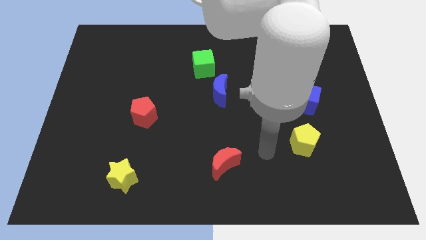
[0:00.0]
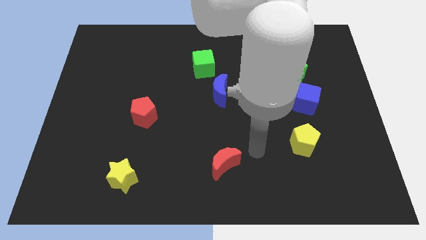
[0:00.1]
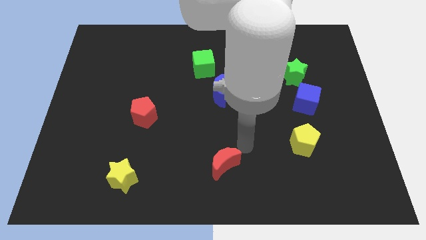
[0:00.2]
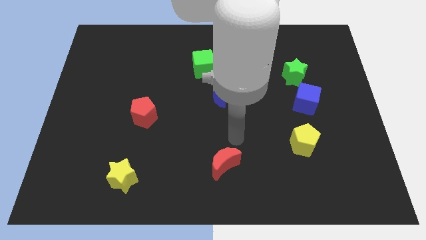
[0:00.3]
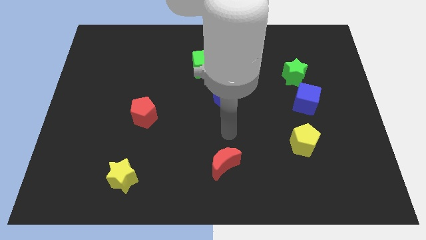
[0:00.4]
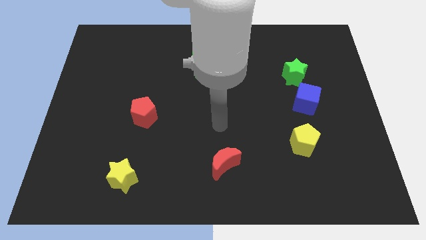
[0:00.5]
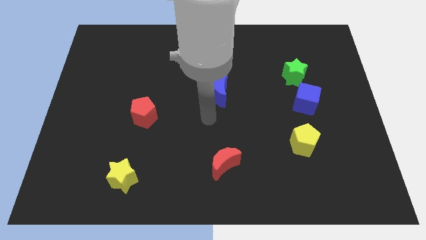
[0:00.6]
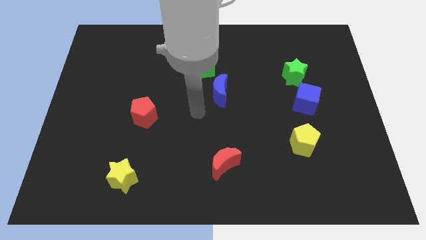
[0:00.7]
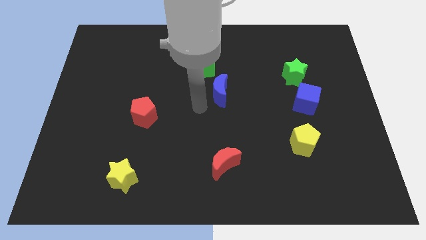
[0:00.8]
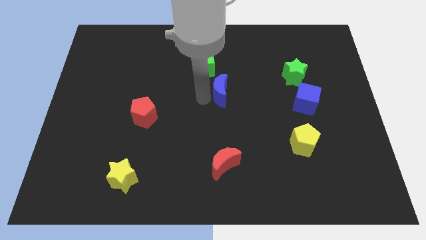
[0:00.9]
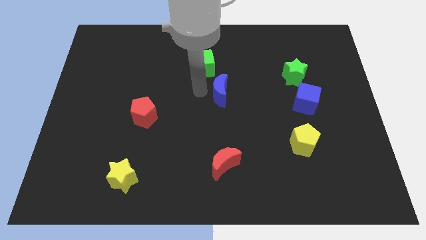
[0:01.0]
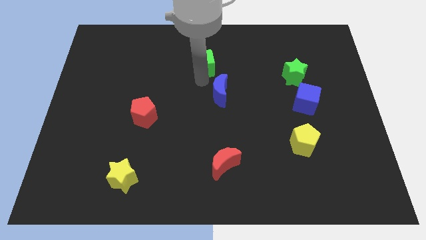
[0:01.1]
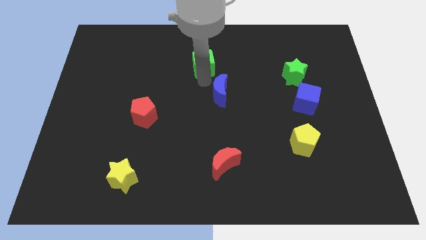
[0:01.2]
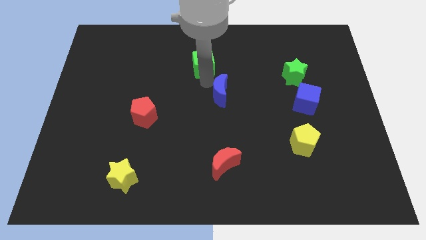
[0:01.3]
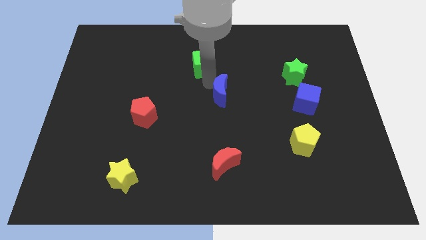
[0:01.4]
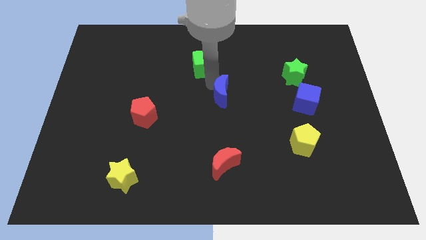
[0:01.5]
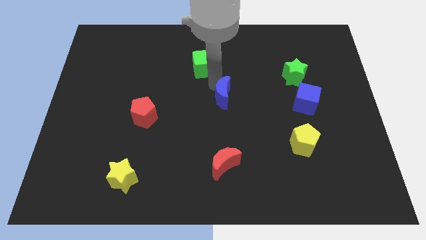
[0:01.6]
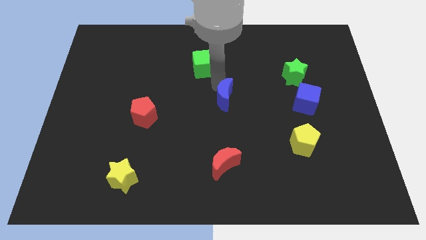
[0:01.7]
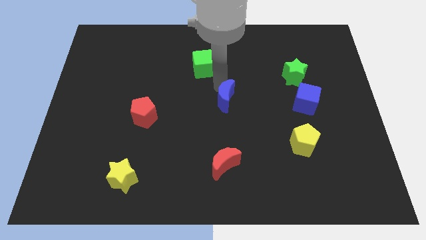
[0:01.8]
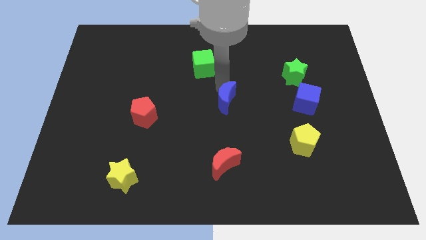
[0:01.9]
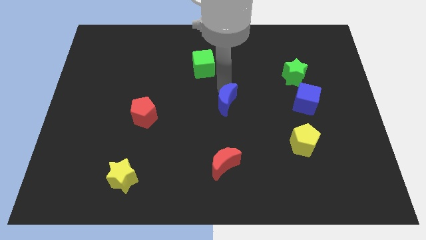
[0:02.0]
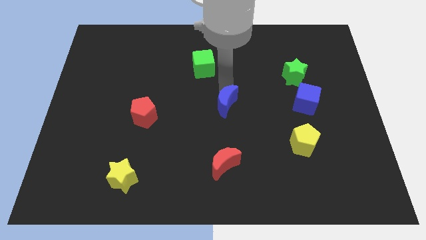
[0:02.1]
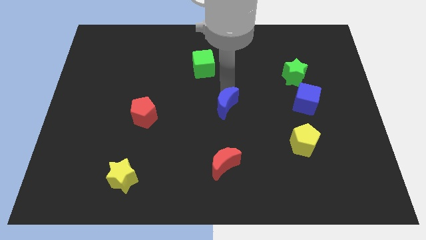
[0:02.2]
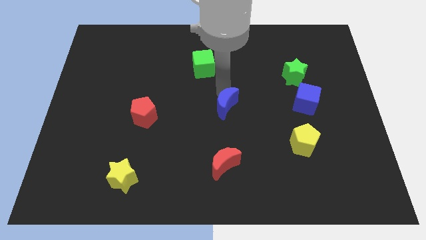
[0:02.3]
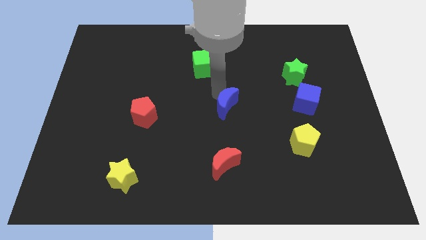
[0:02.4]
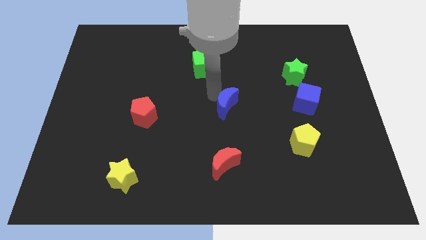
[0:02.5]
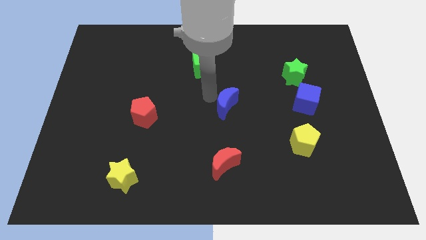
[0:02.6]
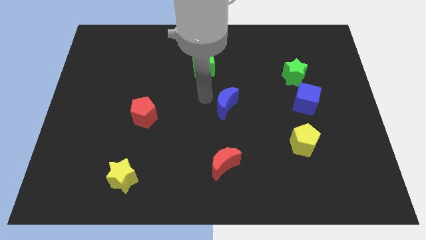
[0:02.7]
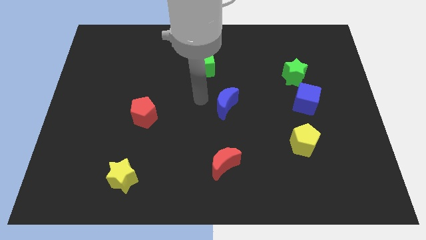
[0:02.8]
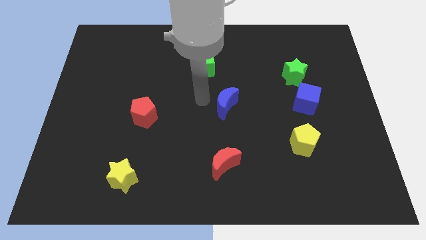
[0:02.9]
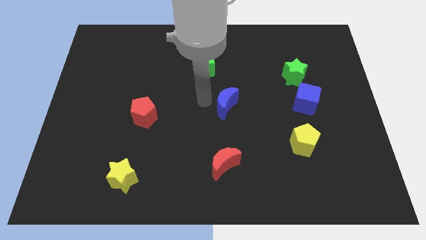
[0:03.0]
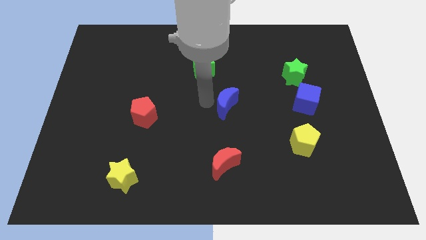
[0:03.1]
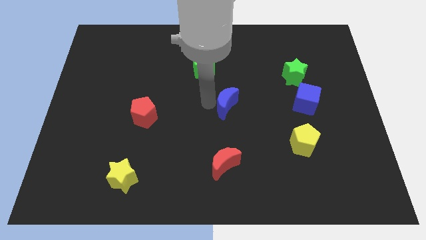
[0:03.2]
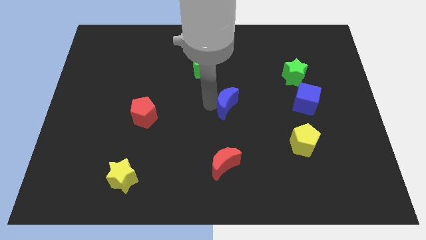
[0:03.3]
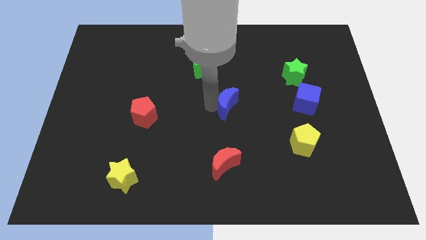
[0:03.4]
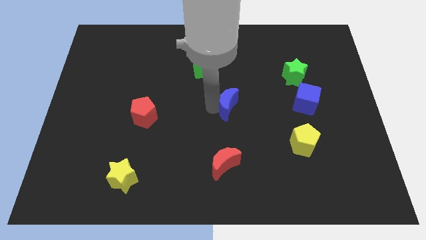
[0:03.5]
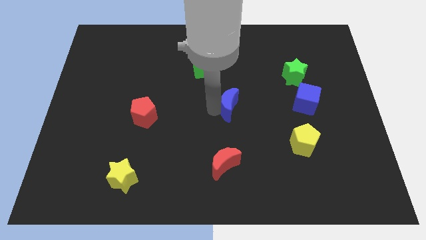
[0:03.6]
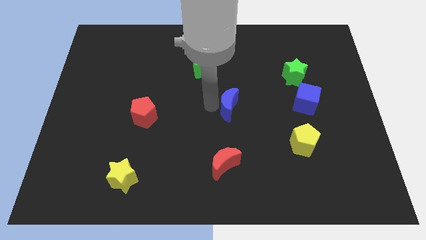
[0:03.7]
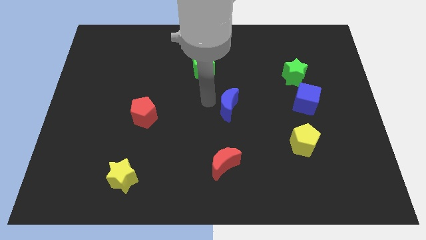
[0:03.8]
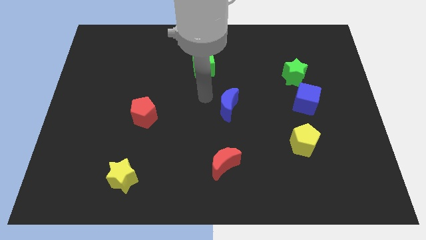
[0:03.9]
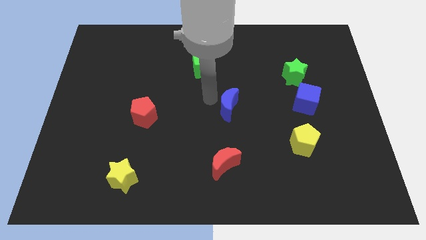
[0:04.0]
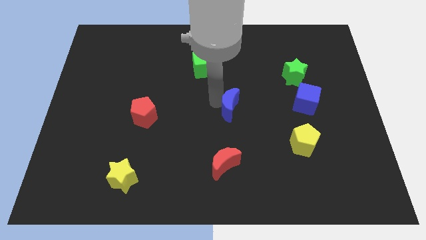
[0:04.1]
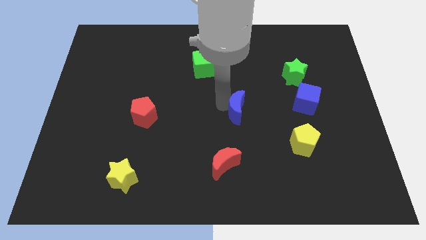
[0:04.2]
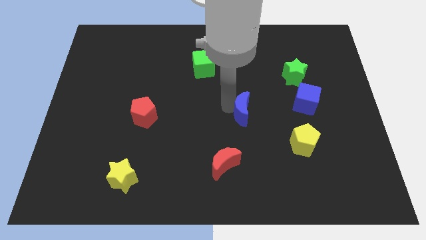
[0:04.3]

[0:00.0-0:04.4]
slide the blue moon a bit diagonally downwards and to the right

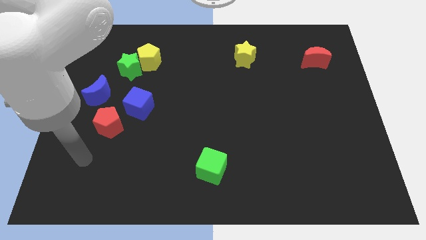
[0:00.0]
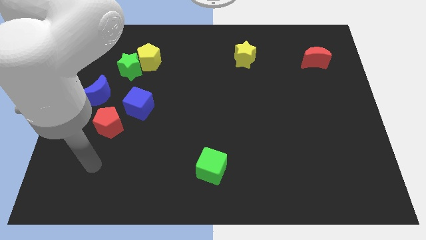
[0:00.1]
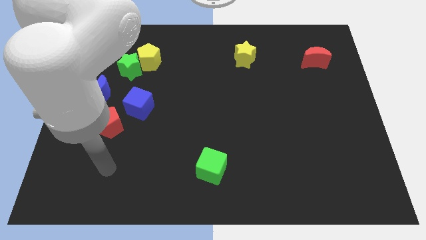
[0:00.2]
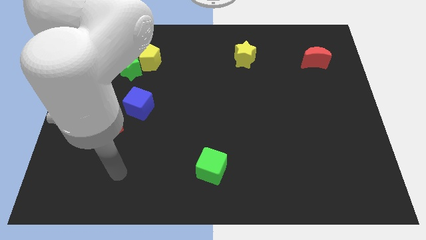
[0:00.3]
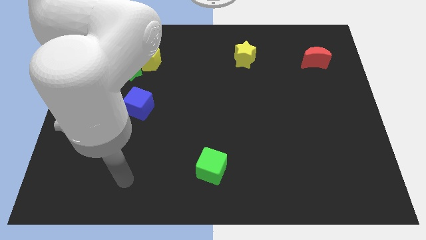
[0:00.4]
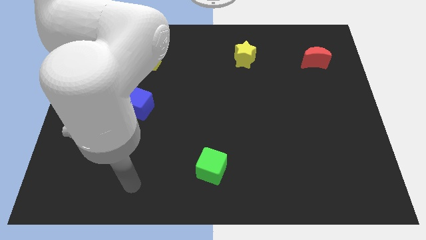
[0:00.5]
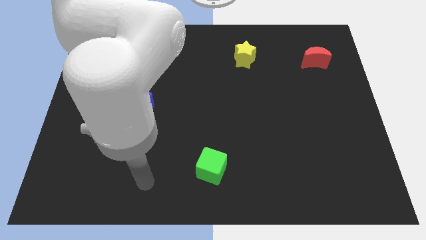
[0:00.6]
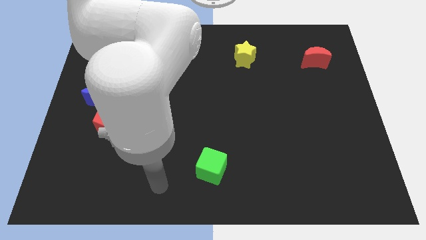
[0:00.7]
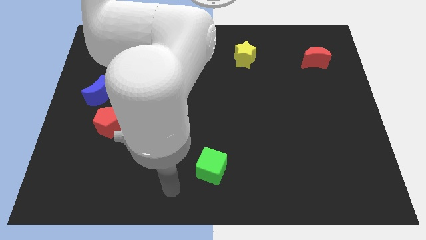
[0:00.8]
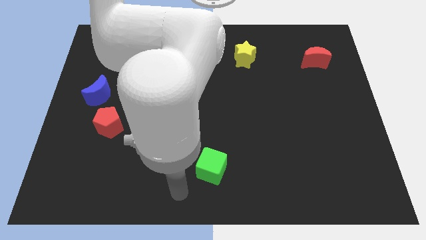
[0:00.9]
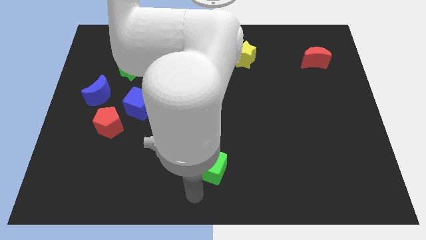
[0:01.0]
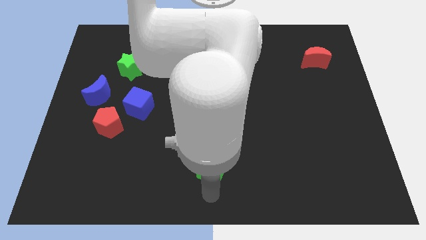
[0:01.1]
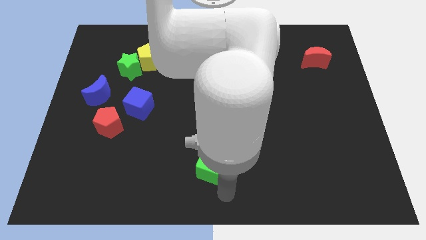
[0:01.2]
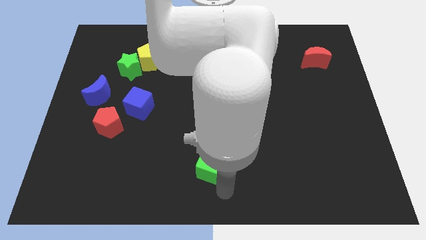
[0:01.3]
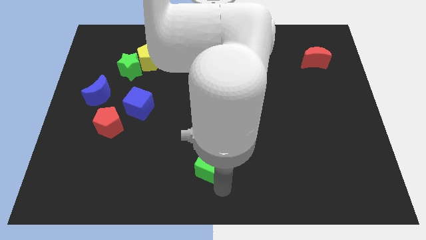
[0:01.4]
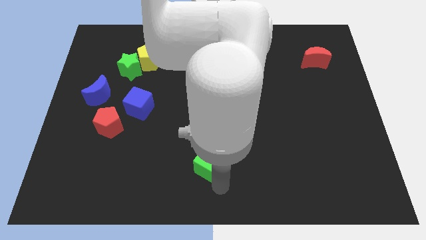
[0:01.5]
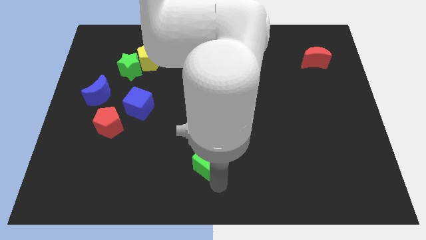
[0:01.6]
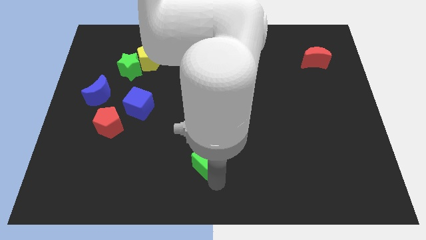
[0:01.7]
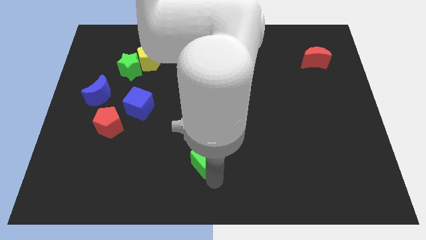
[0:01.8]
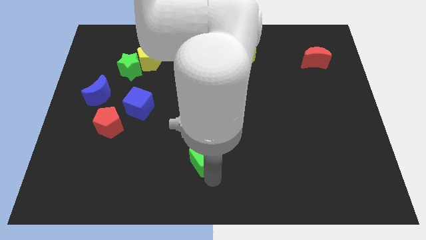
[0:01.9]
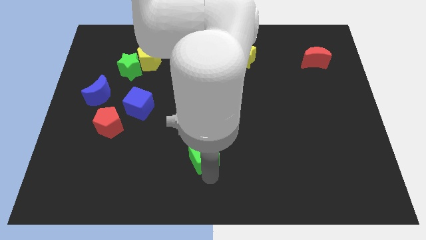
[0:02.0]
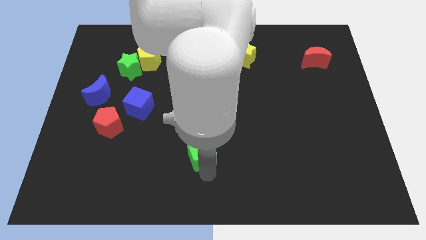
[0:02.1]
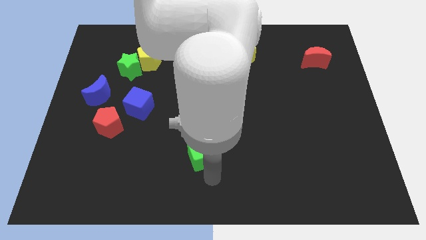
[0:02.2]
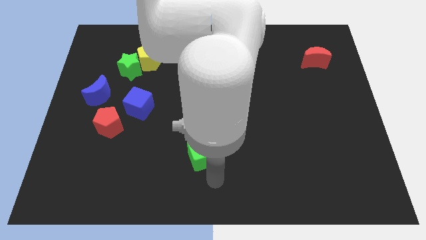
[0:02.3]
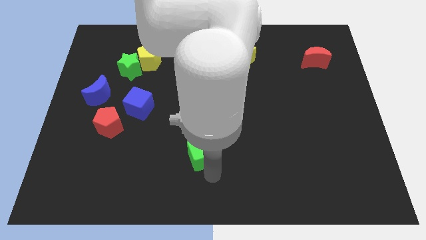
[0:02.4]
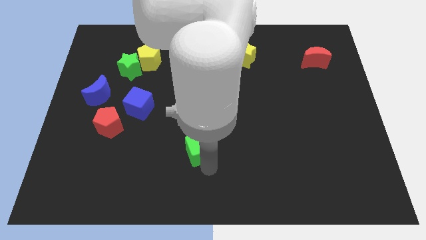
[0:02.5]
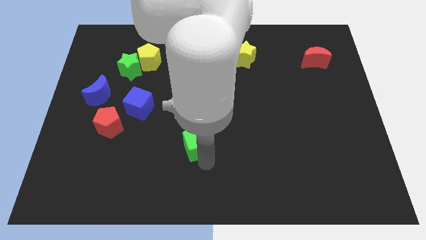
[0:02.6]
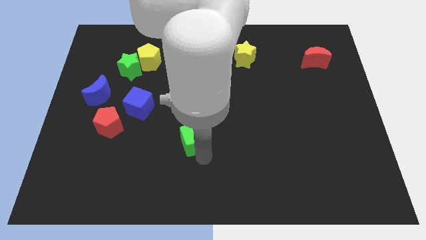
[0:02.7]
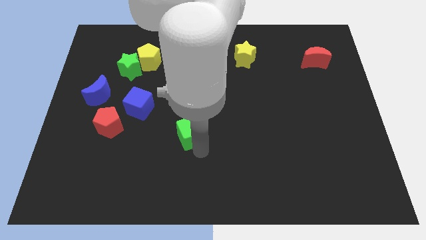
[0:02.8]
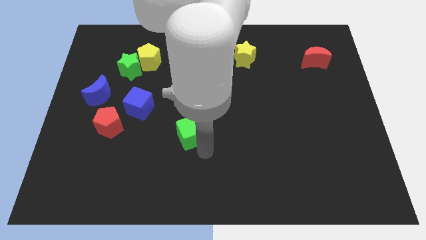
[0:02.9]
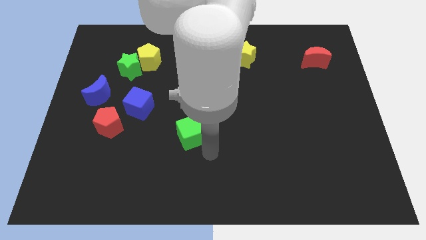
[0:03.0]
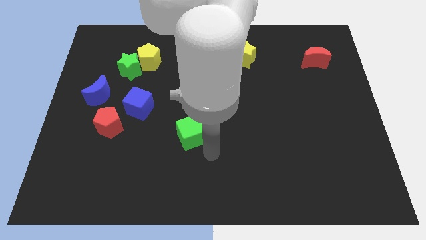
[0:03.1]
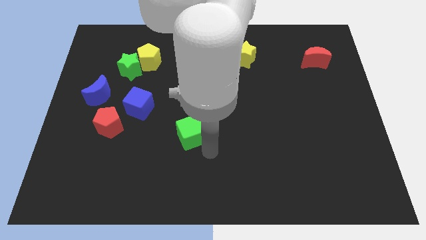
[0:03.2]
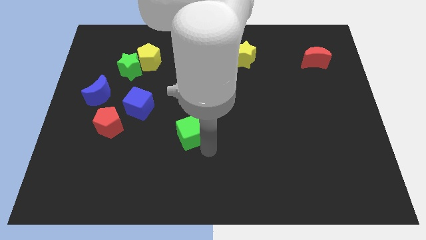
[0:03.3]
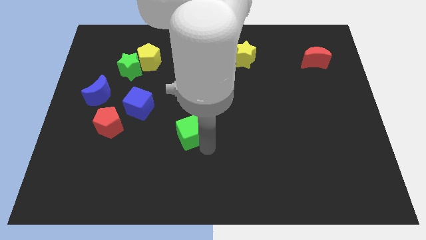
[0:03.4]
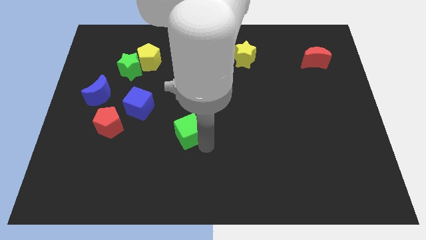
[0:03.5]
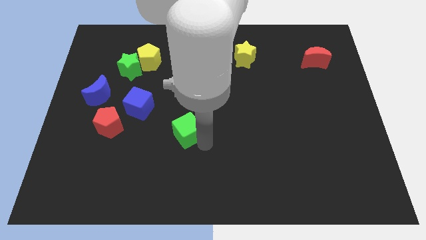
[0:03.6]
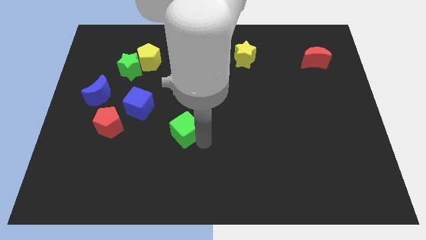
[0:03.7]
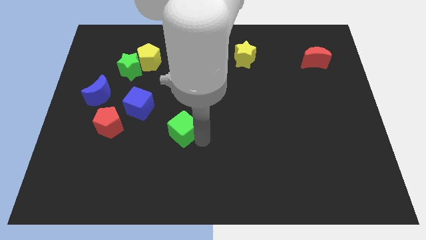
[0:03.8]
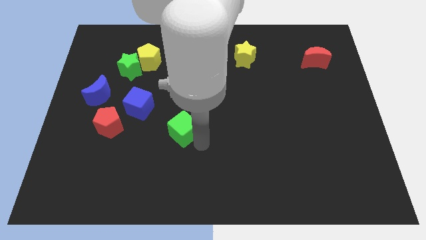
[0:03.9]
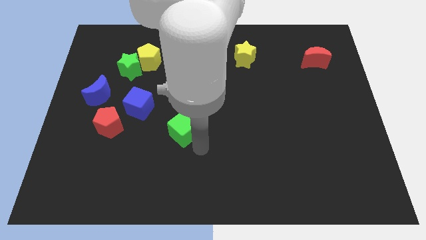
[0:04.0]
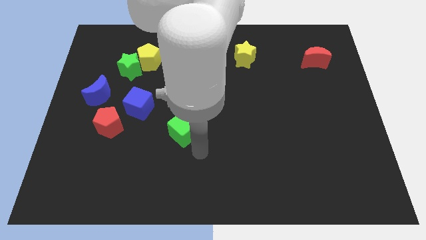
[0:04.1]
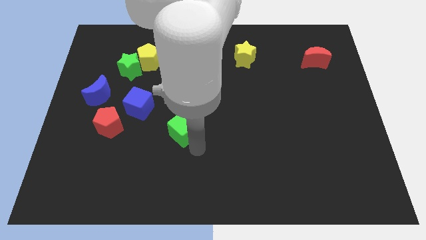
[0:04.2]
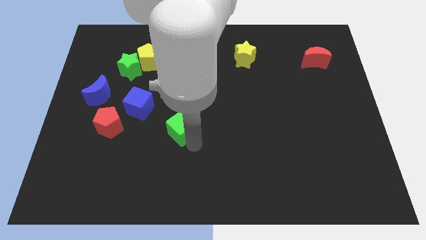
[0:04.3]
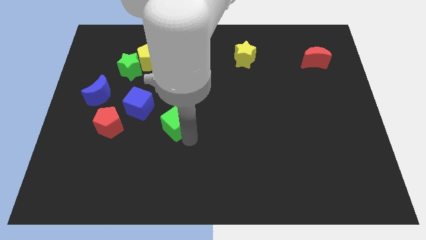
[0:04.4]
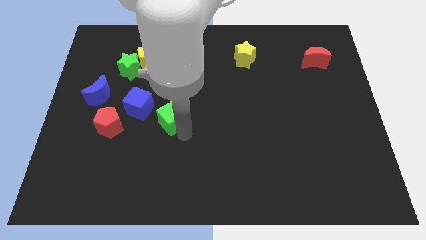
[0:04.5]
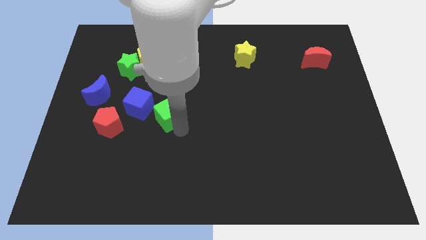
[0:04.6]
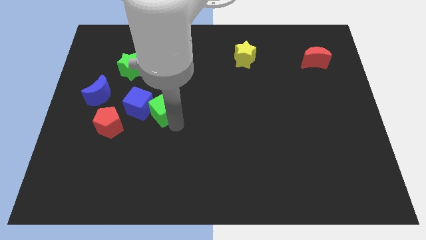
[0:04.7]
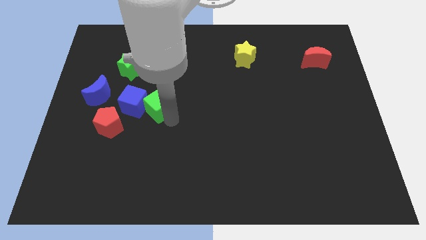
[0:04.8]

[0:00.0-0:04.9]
slide the green cube diagonally up and left
